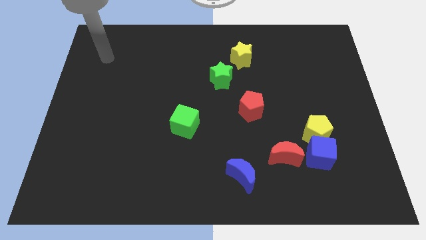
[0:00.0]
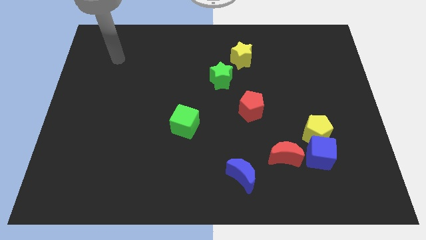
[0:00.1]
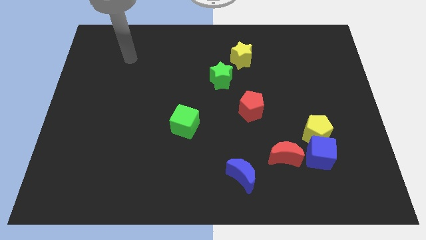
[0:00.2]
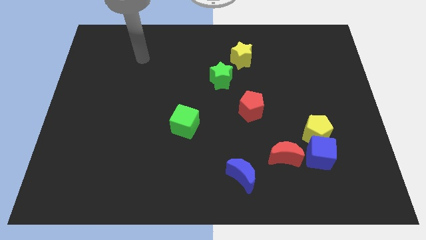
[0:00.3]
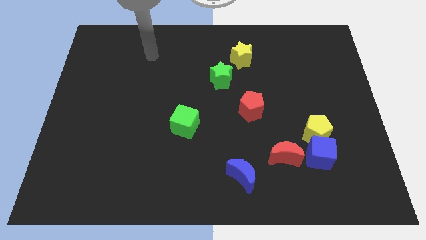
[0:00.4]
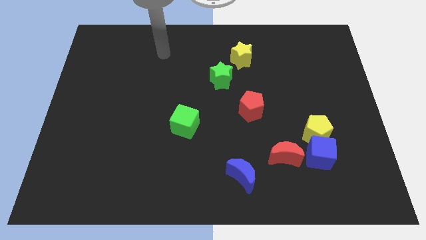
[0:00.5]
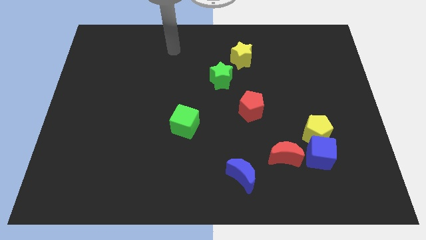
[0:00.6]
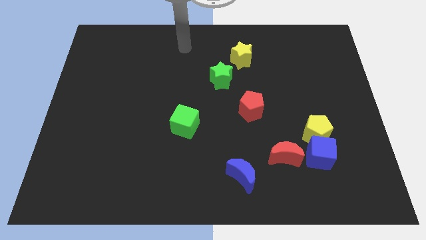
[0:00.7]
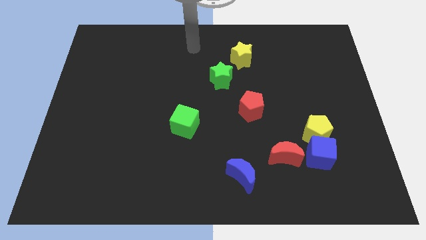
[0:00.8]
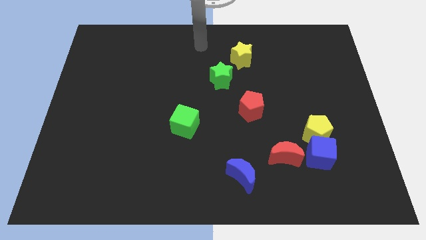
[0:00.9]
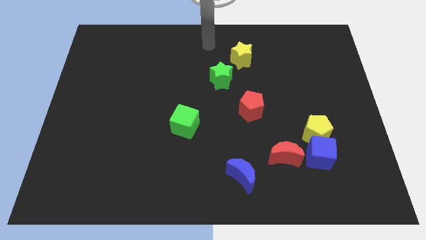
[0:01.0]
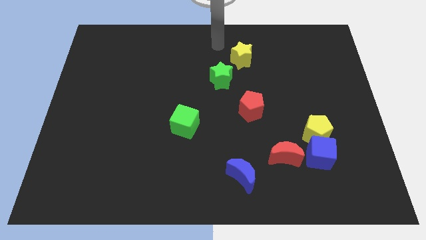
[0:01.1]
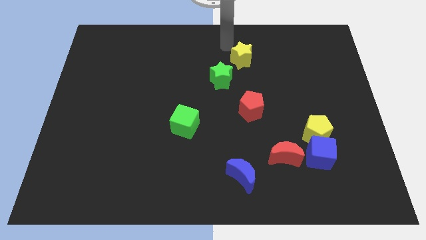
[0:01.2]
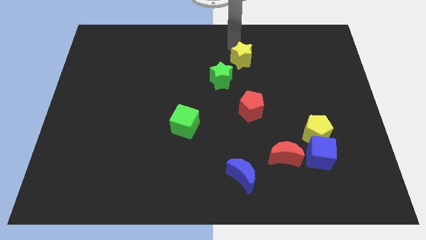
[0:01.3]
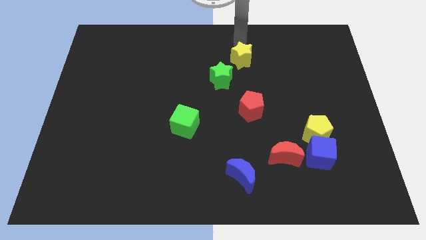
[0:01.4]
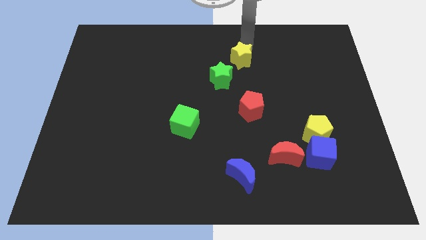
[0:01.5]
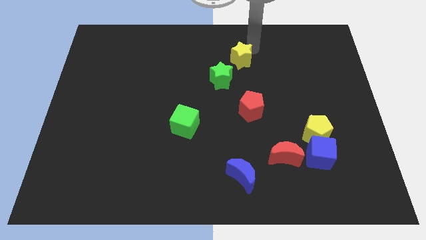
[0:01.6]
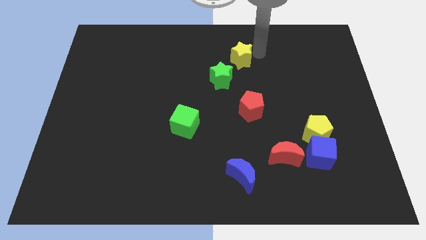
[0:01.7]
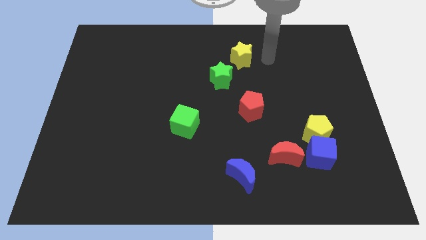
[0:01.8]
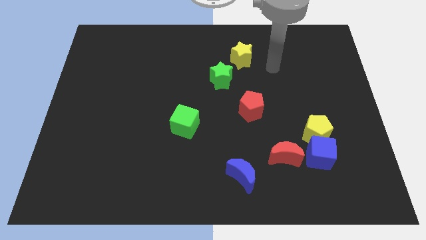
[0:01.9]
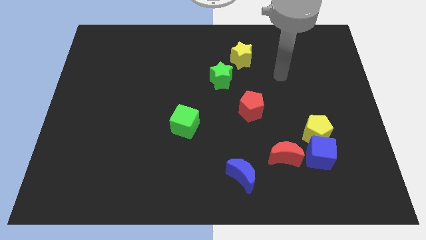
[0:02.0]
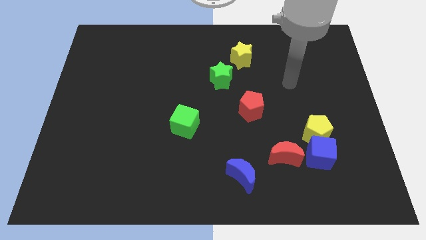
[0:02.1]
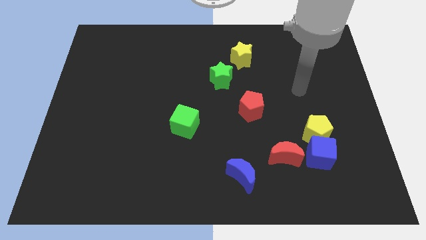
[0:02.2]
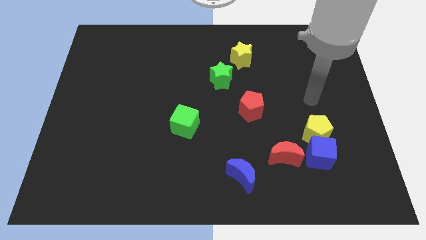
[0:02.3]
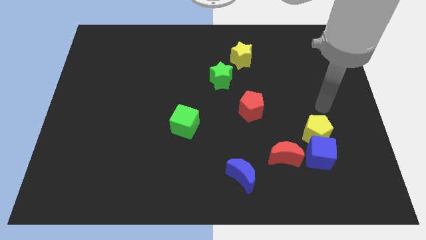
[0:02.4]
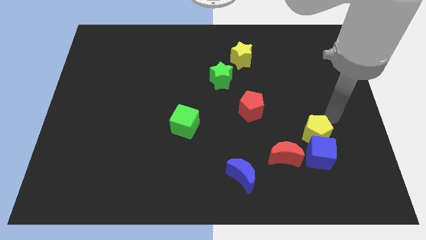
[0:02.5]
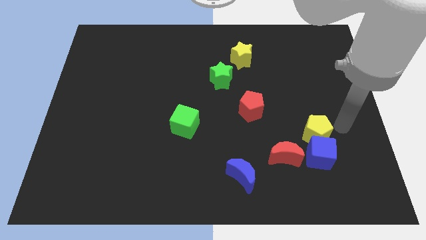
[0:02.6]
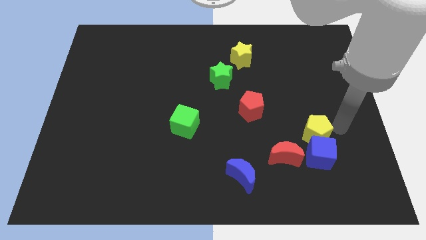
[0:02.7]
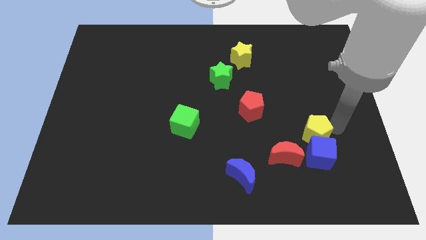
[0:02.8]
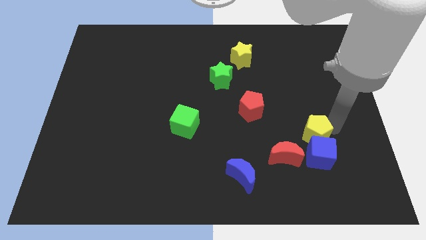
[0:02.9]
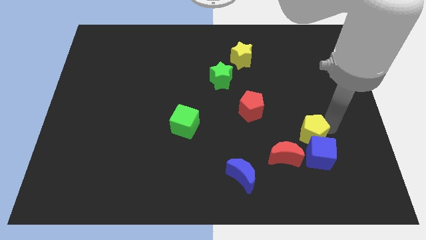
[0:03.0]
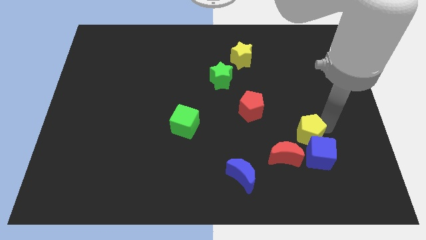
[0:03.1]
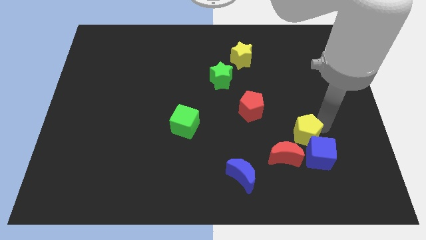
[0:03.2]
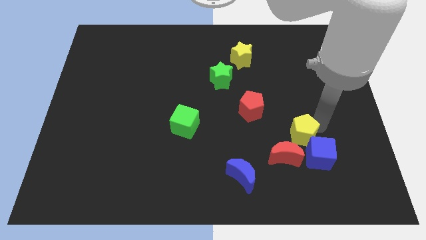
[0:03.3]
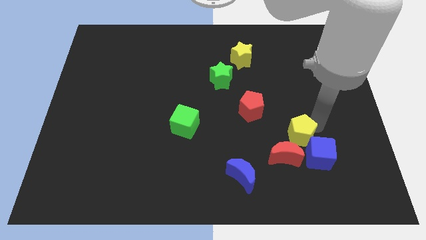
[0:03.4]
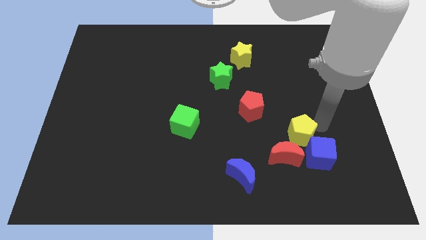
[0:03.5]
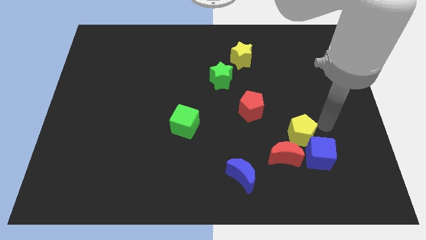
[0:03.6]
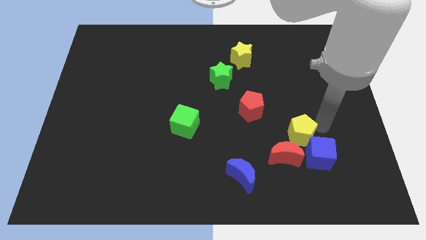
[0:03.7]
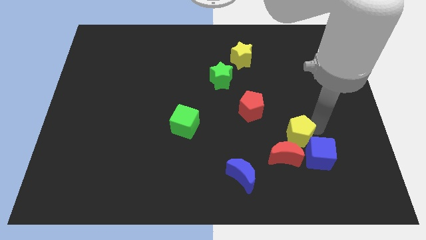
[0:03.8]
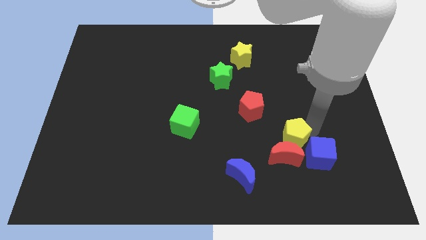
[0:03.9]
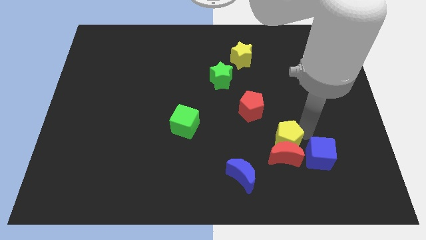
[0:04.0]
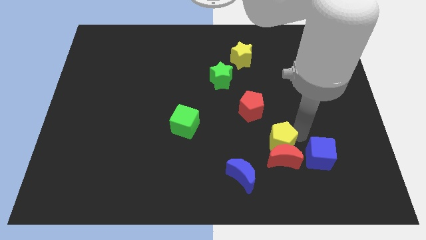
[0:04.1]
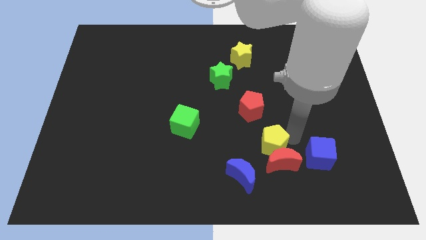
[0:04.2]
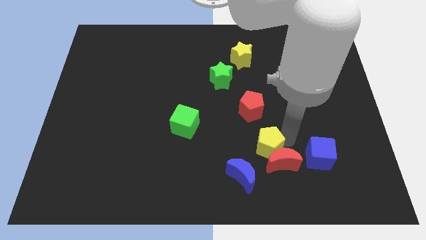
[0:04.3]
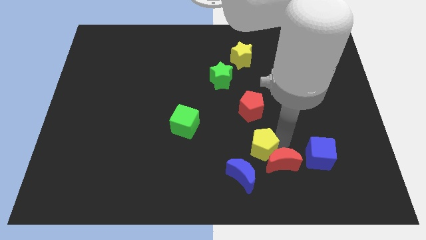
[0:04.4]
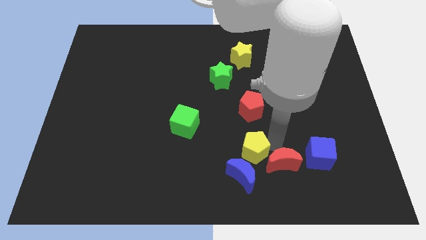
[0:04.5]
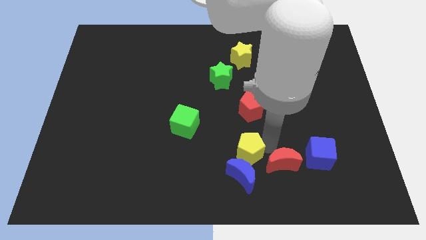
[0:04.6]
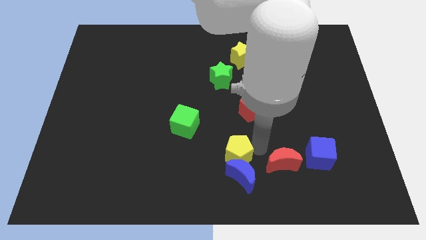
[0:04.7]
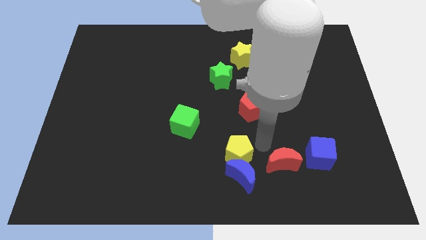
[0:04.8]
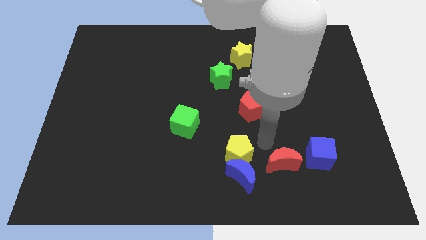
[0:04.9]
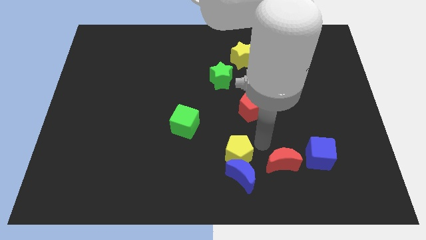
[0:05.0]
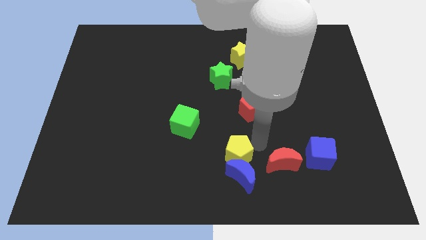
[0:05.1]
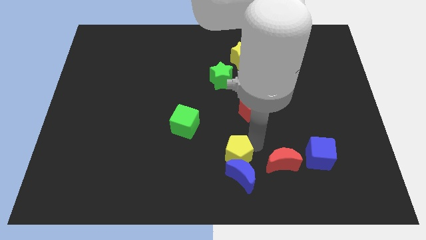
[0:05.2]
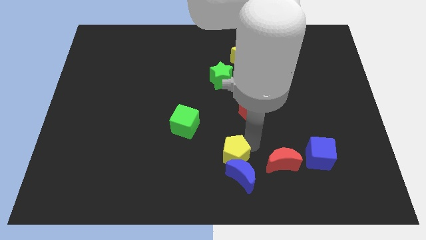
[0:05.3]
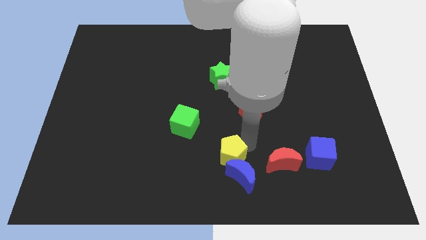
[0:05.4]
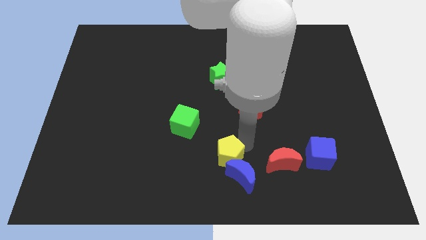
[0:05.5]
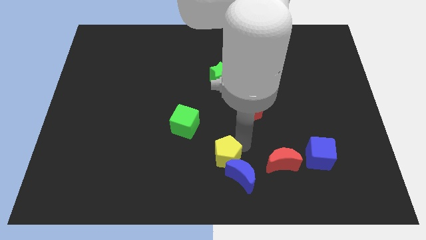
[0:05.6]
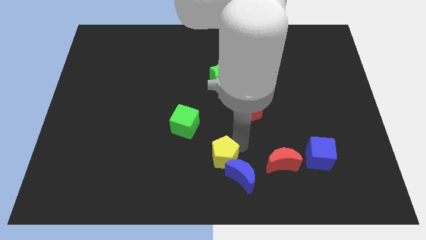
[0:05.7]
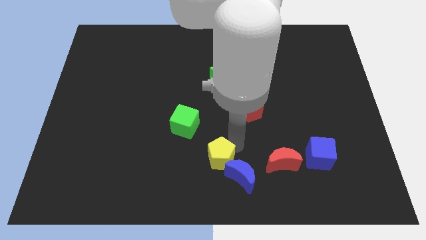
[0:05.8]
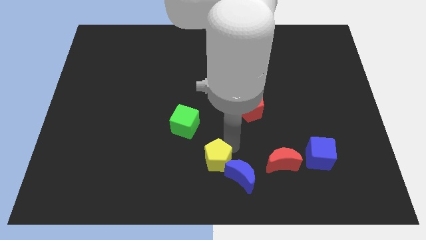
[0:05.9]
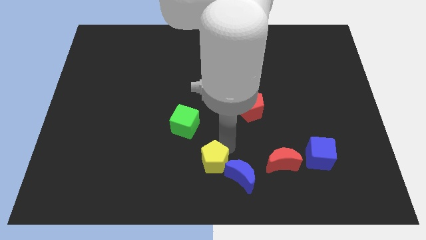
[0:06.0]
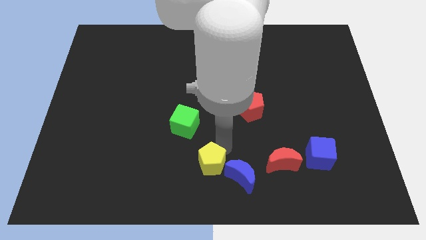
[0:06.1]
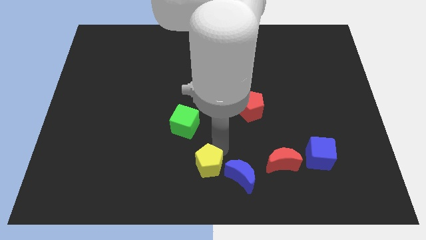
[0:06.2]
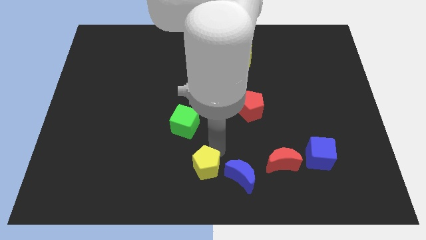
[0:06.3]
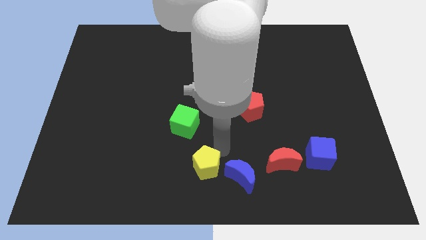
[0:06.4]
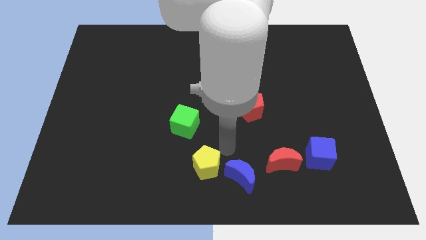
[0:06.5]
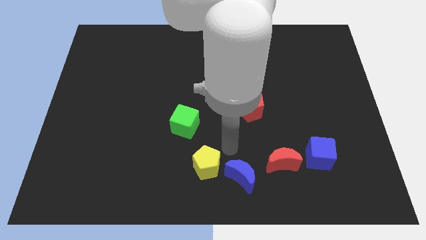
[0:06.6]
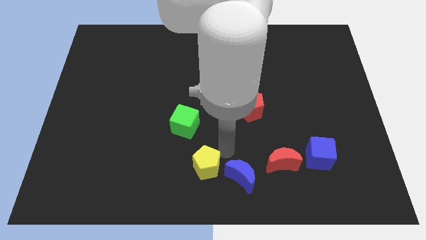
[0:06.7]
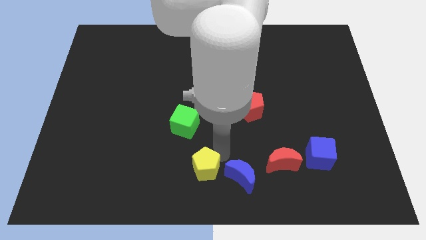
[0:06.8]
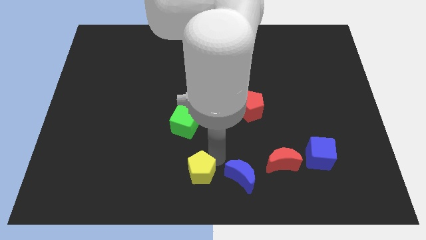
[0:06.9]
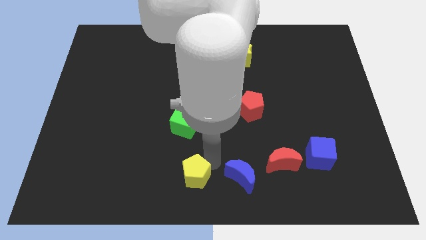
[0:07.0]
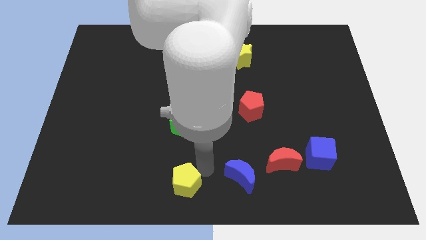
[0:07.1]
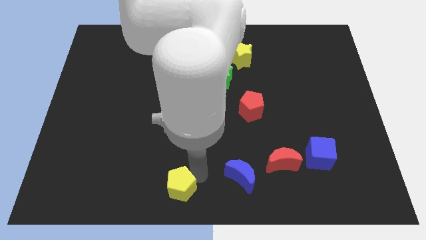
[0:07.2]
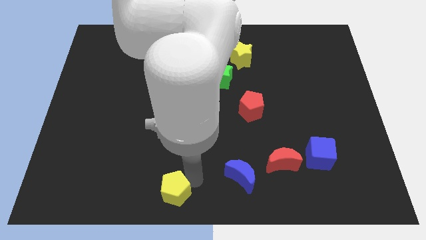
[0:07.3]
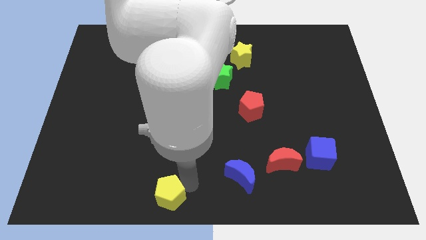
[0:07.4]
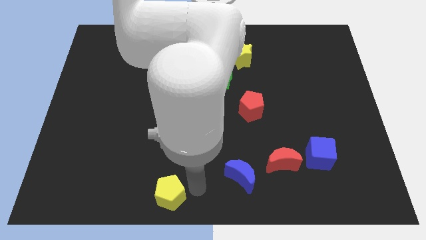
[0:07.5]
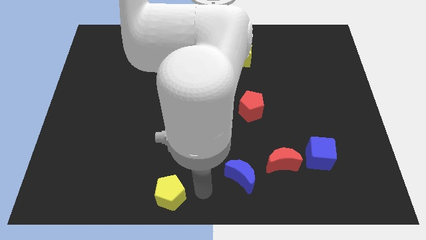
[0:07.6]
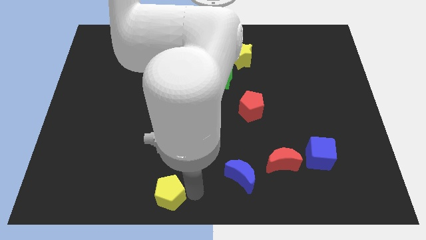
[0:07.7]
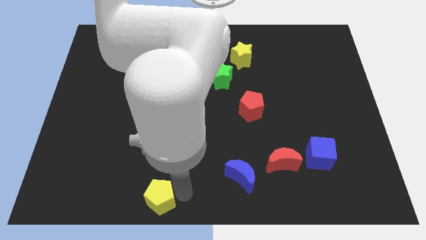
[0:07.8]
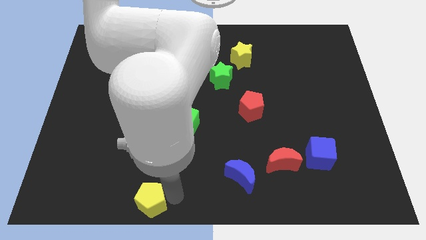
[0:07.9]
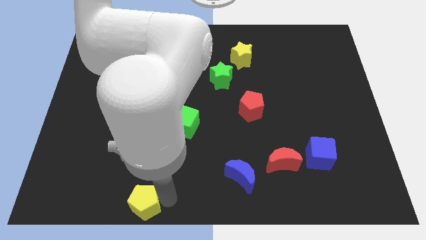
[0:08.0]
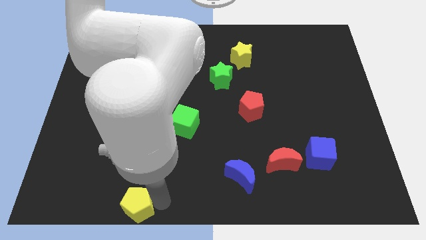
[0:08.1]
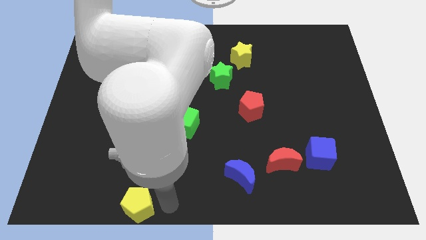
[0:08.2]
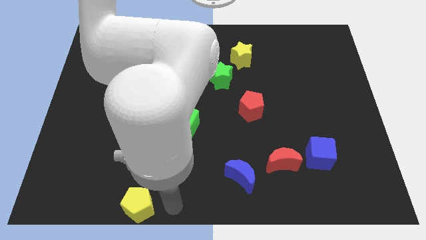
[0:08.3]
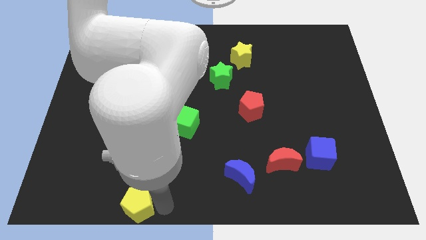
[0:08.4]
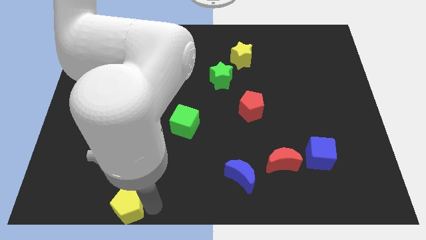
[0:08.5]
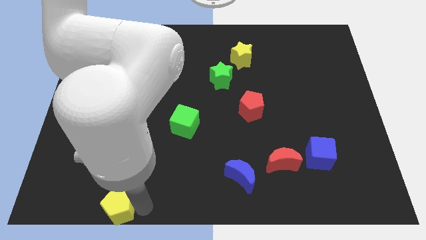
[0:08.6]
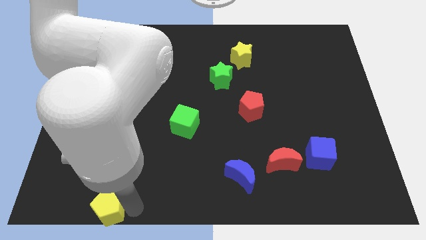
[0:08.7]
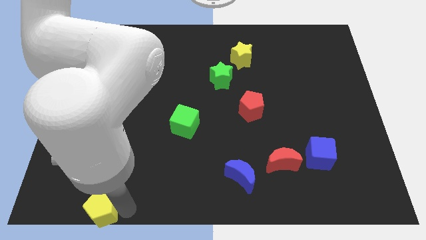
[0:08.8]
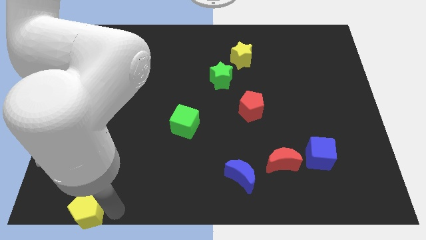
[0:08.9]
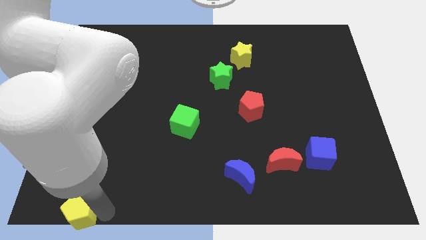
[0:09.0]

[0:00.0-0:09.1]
put the yellow pentagon to the bottom left corner
